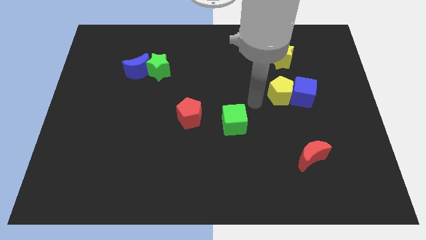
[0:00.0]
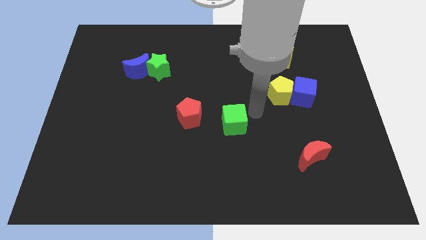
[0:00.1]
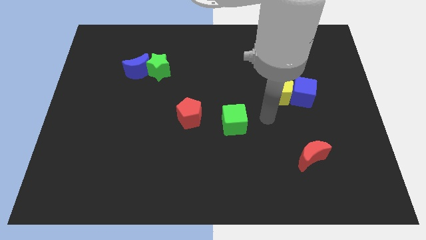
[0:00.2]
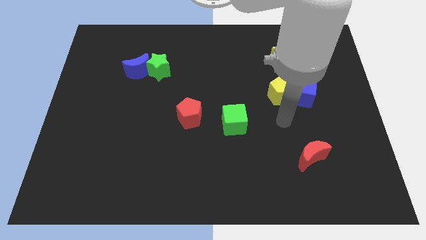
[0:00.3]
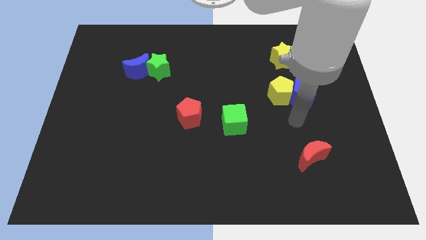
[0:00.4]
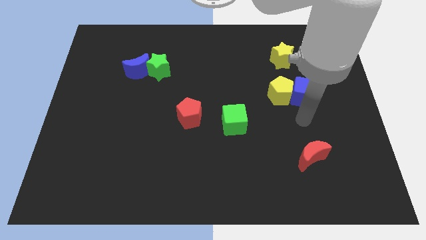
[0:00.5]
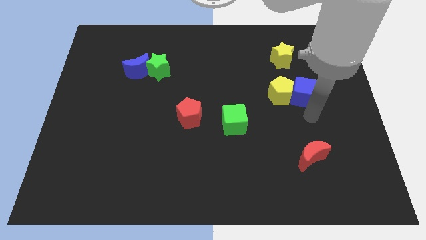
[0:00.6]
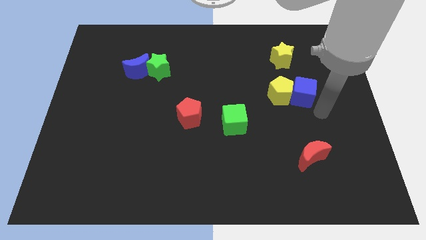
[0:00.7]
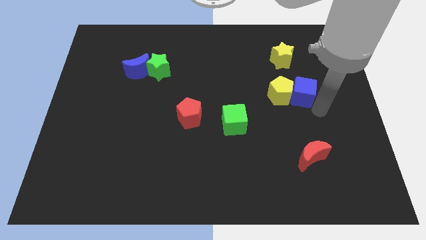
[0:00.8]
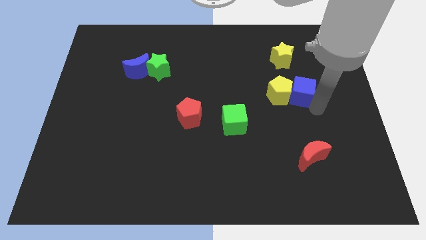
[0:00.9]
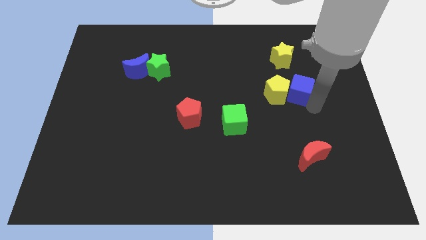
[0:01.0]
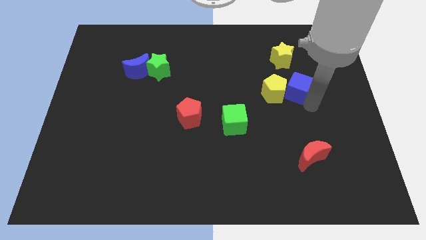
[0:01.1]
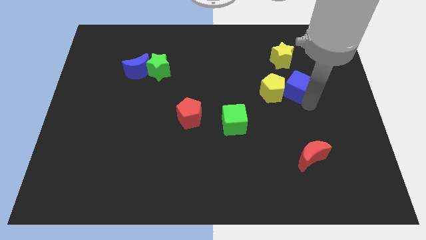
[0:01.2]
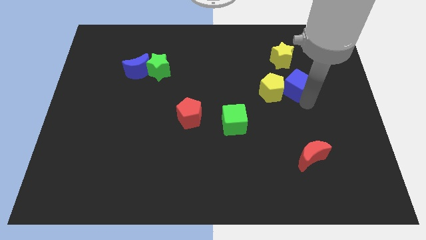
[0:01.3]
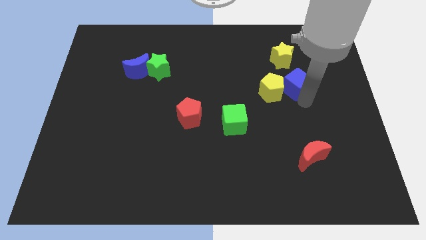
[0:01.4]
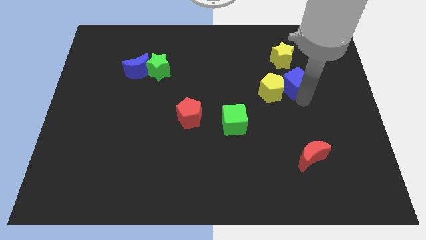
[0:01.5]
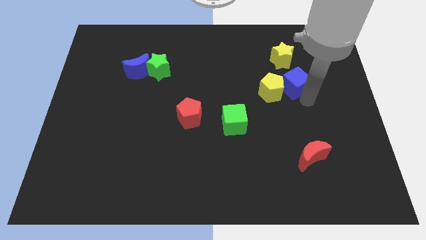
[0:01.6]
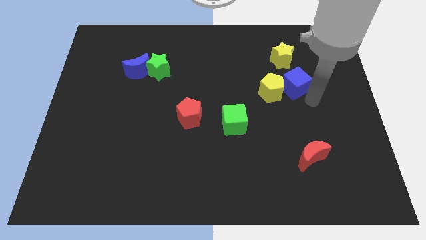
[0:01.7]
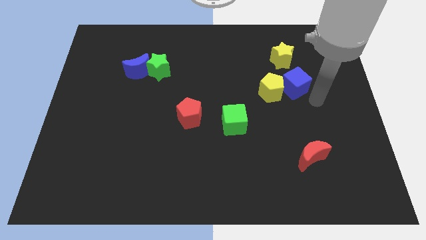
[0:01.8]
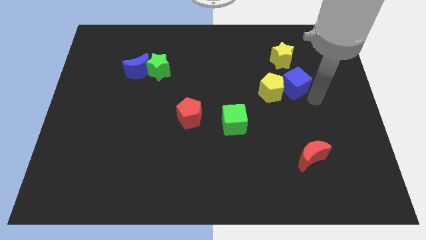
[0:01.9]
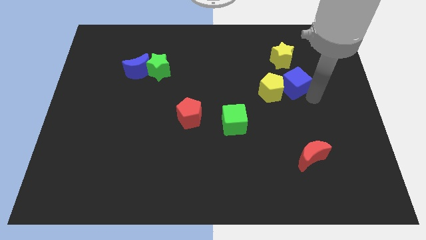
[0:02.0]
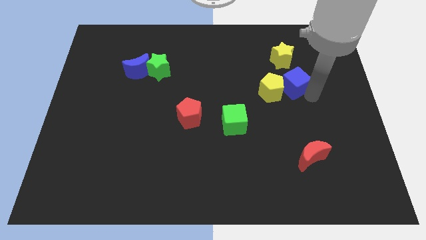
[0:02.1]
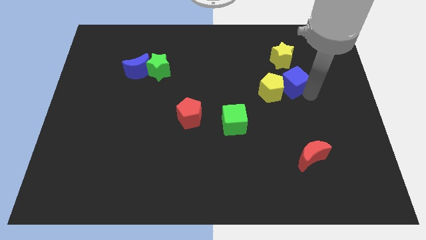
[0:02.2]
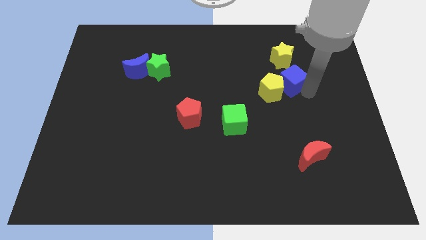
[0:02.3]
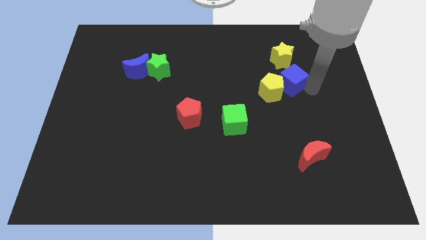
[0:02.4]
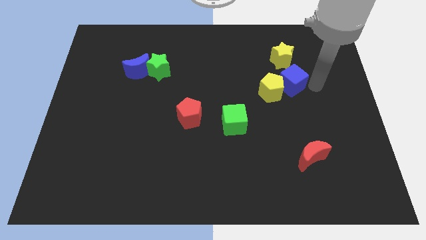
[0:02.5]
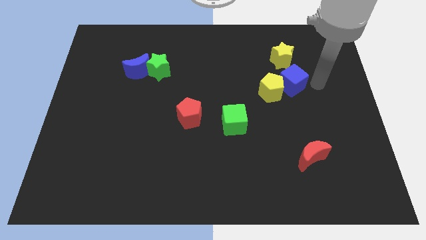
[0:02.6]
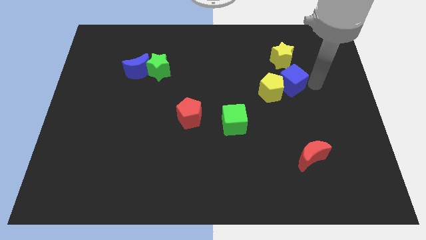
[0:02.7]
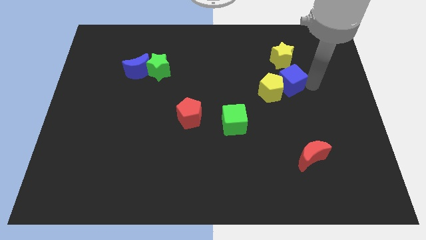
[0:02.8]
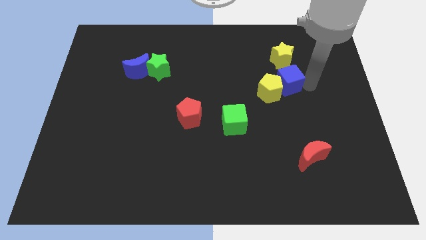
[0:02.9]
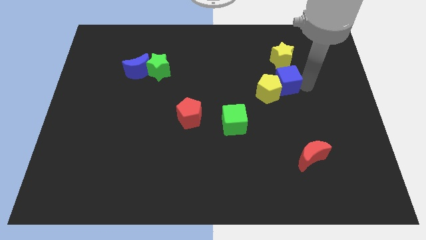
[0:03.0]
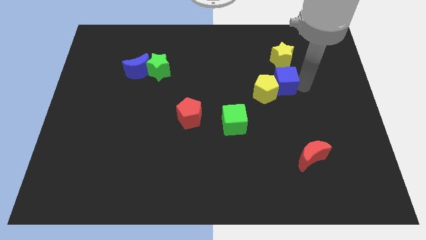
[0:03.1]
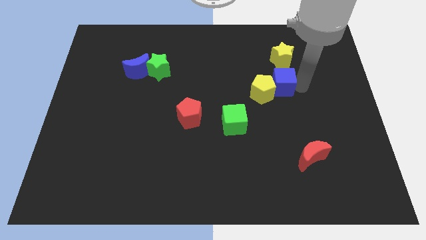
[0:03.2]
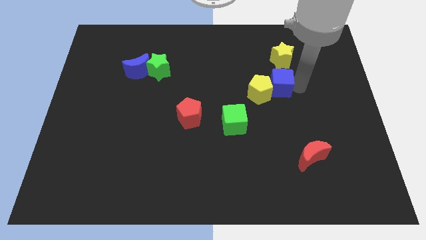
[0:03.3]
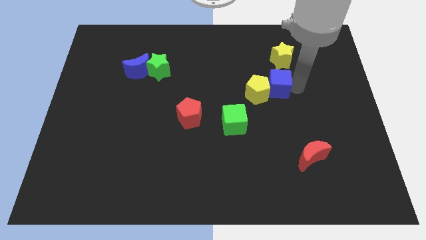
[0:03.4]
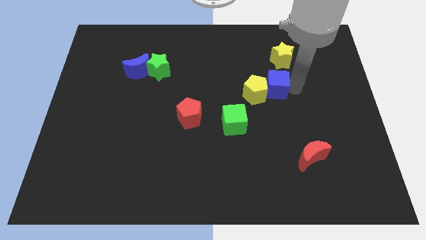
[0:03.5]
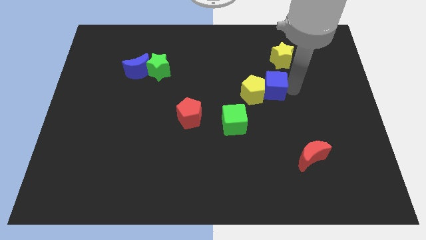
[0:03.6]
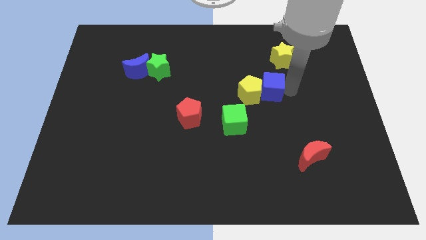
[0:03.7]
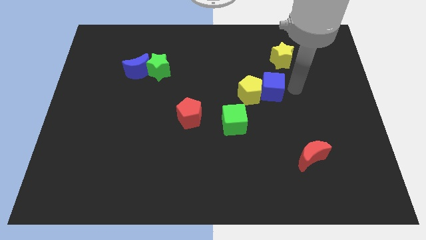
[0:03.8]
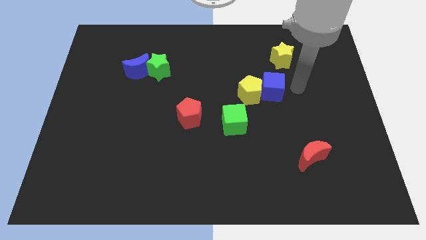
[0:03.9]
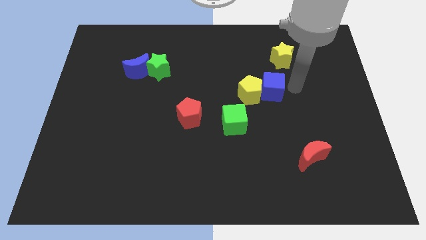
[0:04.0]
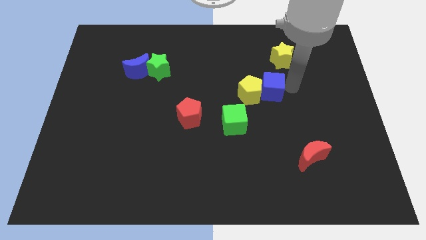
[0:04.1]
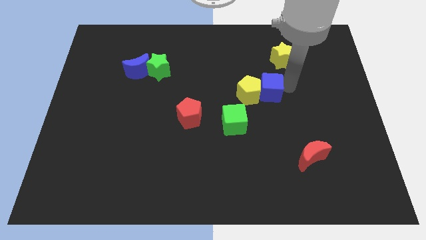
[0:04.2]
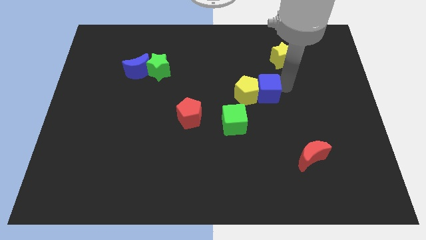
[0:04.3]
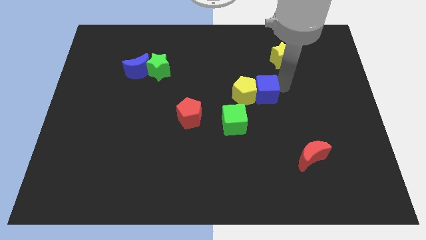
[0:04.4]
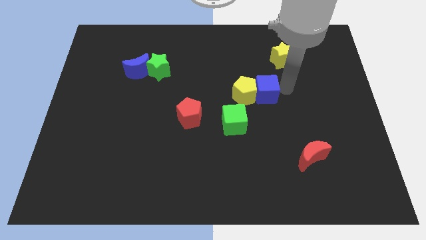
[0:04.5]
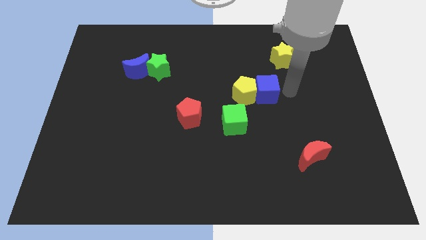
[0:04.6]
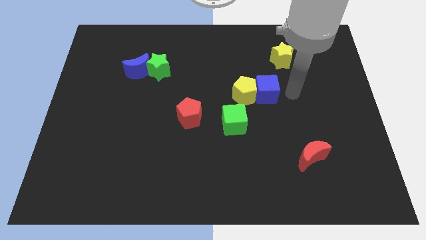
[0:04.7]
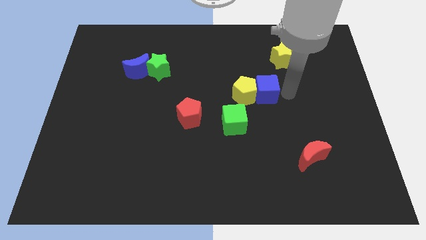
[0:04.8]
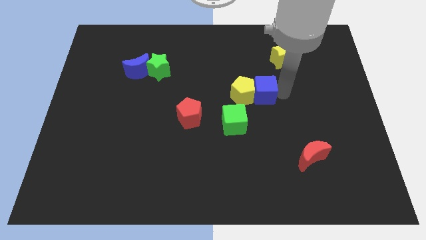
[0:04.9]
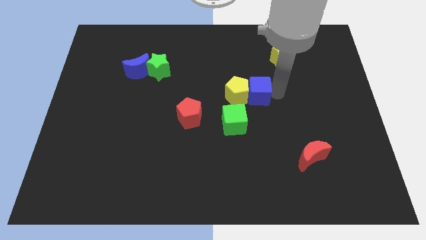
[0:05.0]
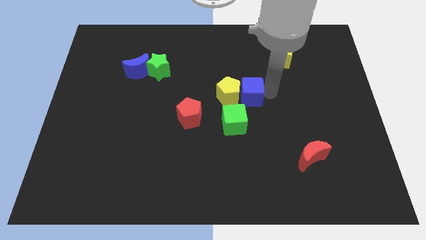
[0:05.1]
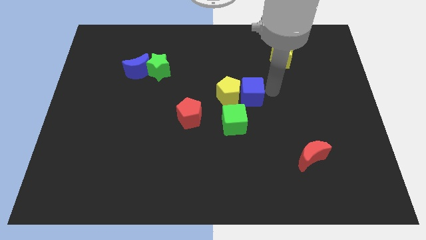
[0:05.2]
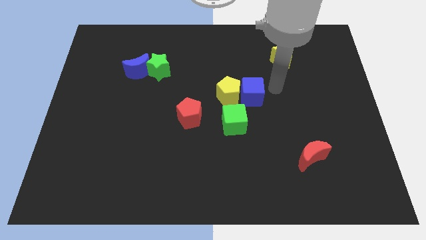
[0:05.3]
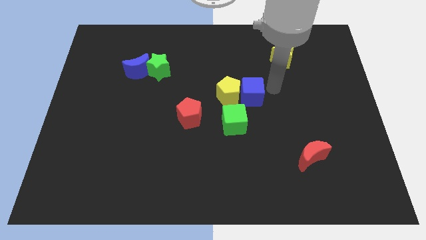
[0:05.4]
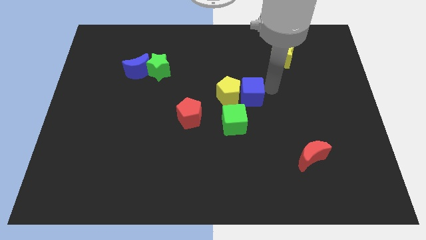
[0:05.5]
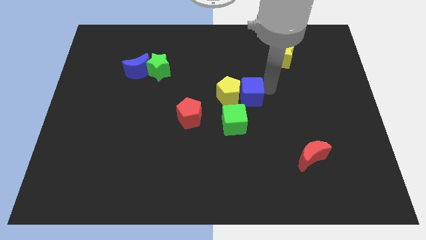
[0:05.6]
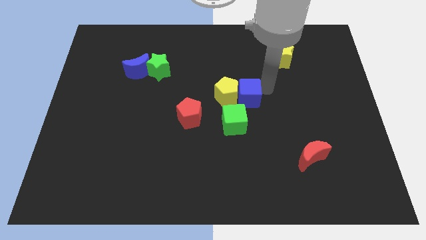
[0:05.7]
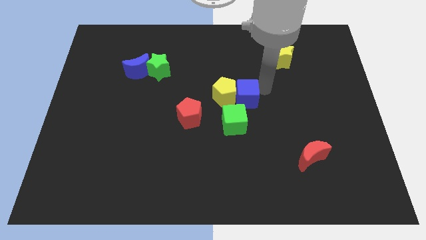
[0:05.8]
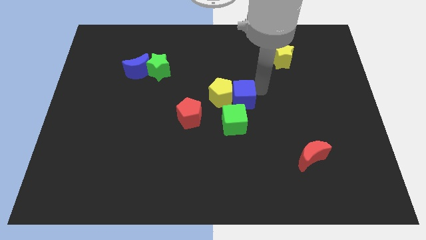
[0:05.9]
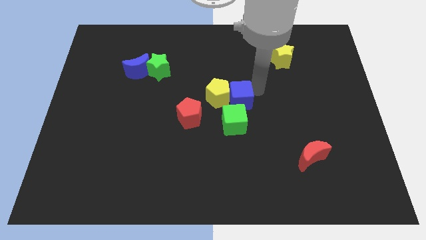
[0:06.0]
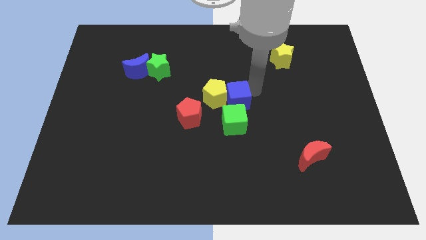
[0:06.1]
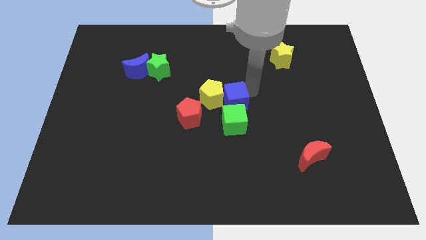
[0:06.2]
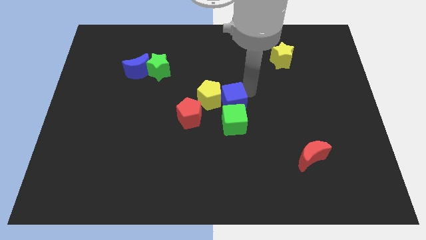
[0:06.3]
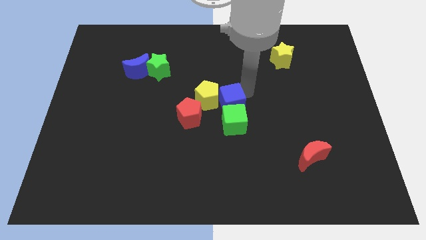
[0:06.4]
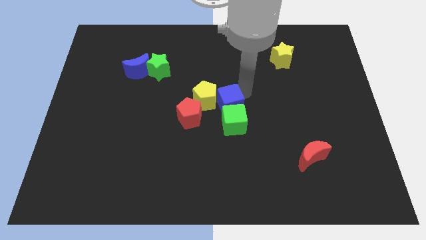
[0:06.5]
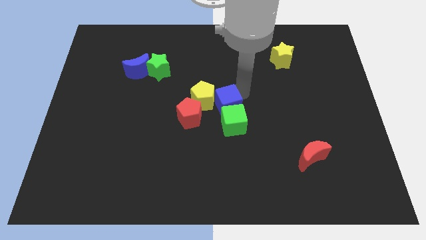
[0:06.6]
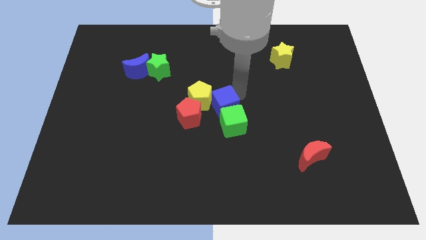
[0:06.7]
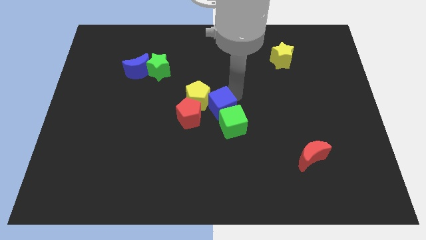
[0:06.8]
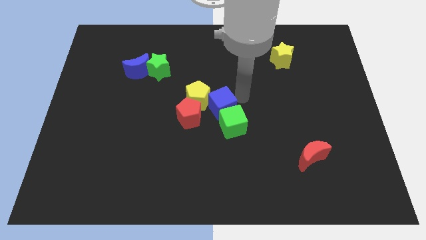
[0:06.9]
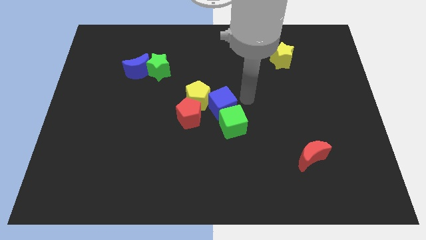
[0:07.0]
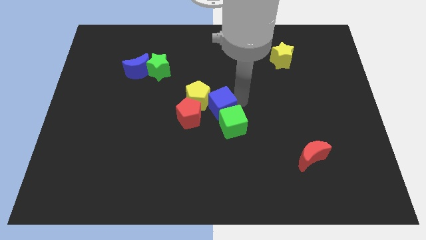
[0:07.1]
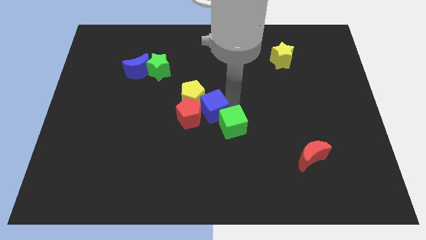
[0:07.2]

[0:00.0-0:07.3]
slide the blue cube close to the red pentagon
